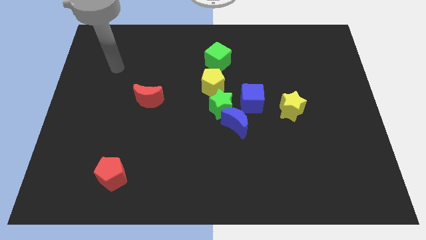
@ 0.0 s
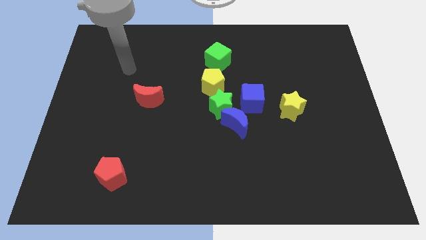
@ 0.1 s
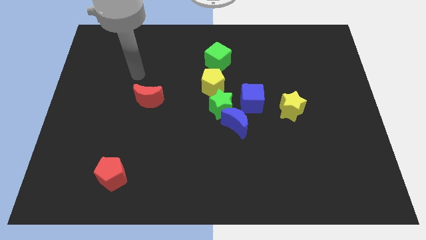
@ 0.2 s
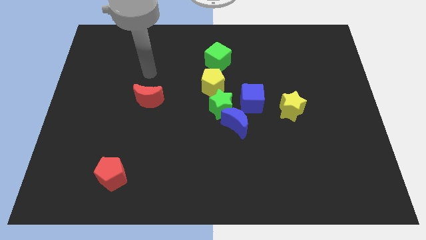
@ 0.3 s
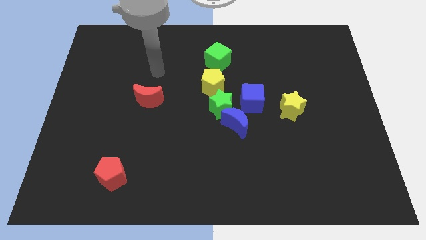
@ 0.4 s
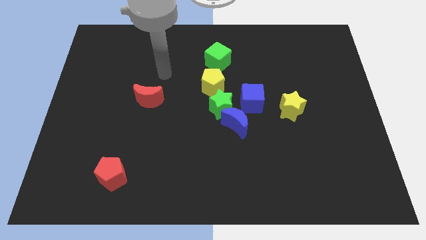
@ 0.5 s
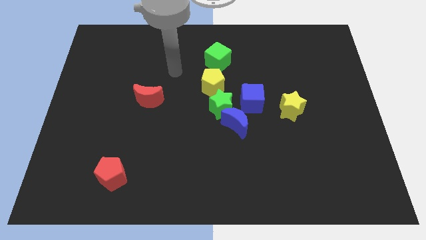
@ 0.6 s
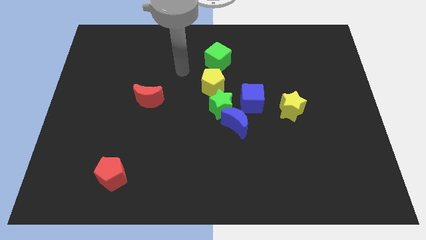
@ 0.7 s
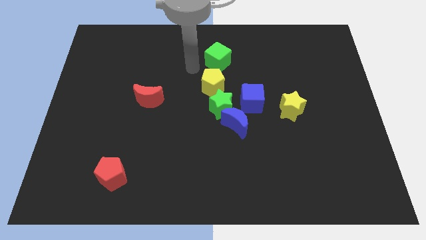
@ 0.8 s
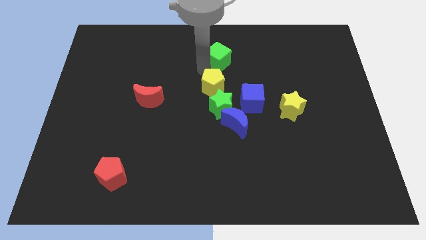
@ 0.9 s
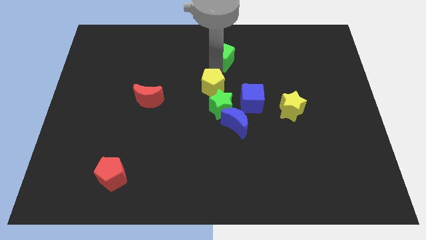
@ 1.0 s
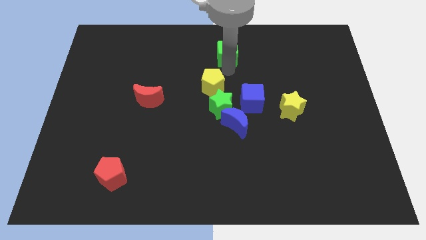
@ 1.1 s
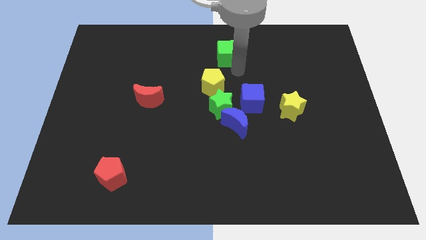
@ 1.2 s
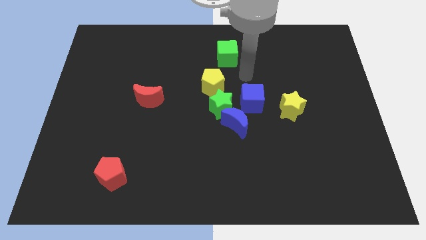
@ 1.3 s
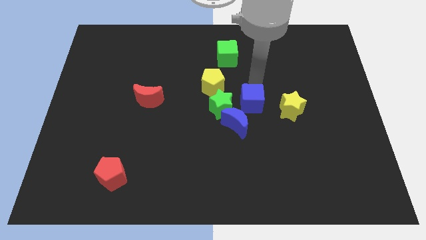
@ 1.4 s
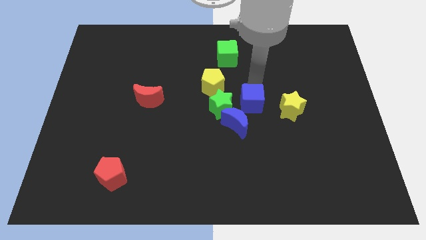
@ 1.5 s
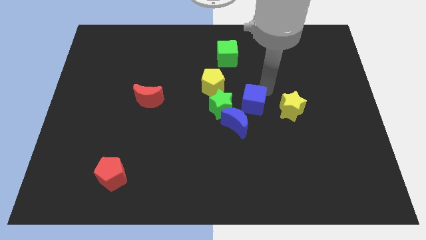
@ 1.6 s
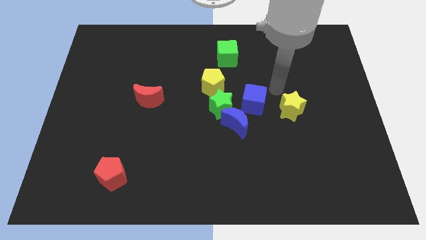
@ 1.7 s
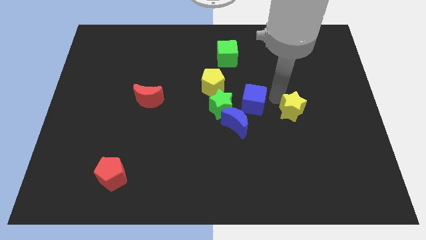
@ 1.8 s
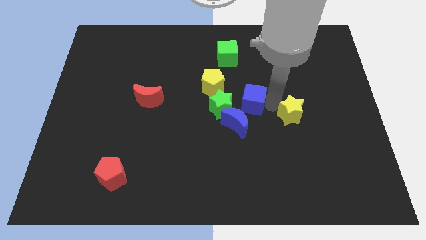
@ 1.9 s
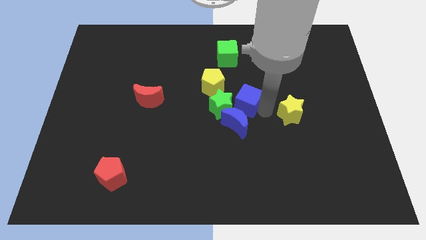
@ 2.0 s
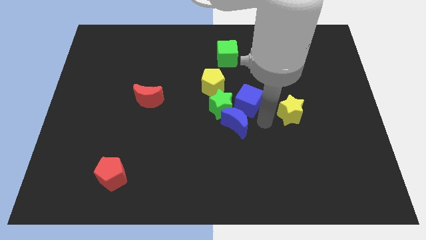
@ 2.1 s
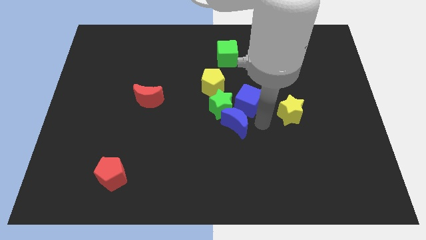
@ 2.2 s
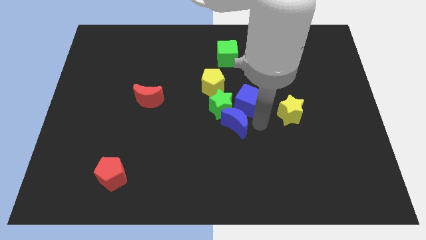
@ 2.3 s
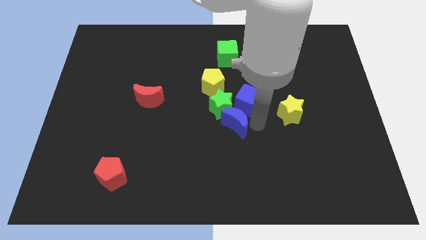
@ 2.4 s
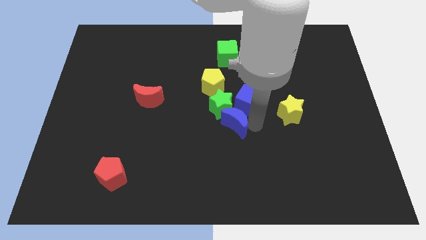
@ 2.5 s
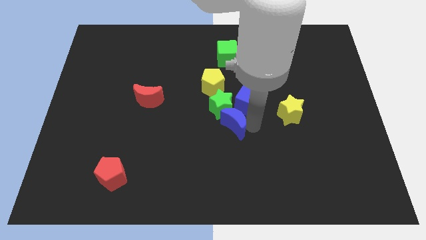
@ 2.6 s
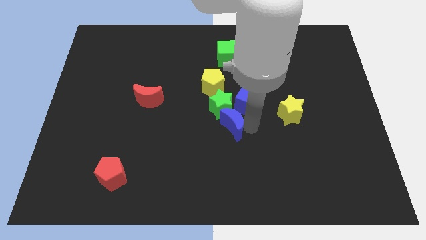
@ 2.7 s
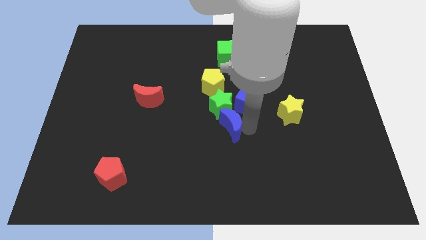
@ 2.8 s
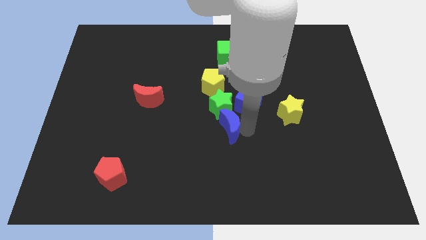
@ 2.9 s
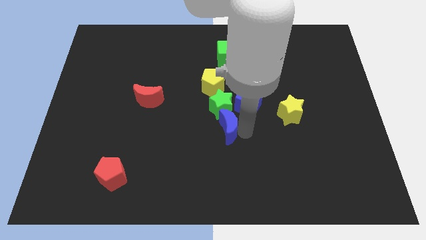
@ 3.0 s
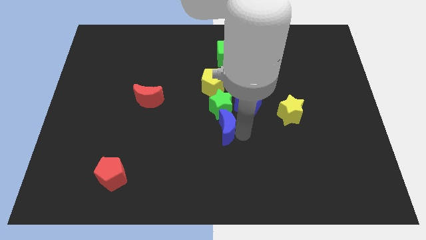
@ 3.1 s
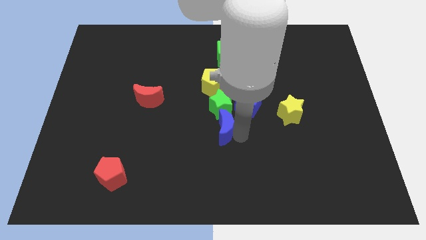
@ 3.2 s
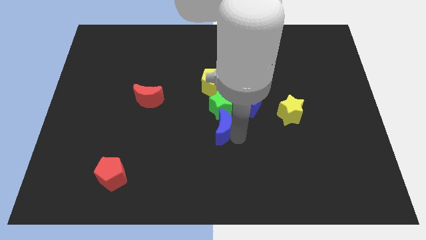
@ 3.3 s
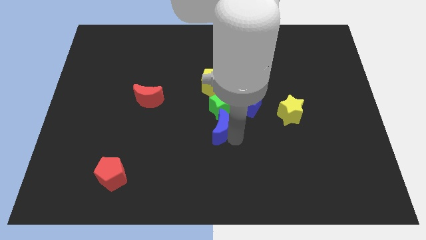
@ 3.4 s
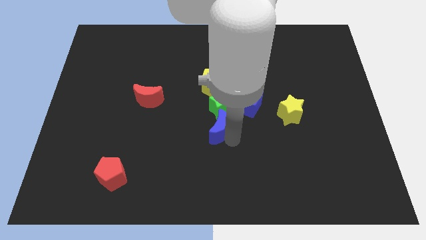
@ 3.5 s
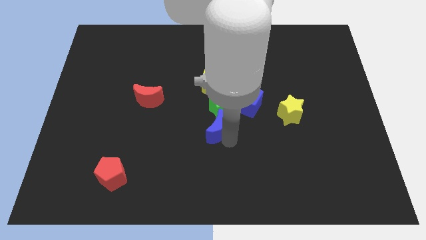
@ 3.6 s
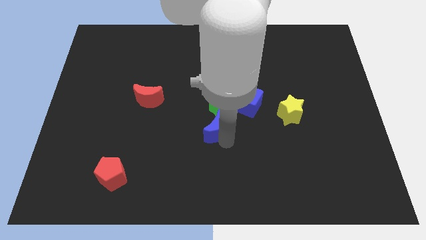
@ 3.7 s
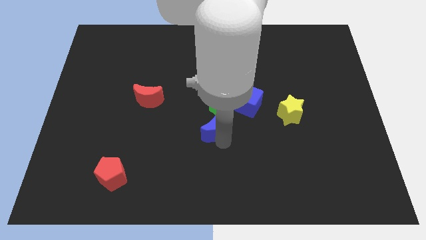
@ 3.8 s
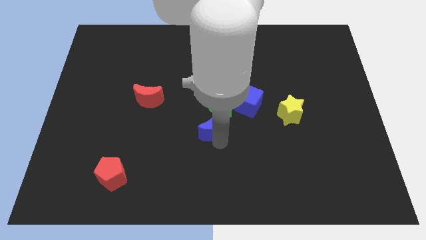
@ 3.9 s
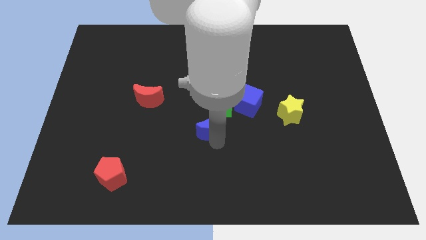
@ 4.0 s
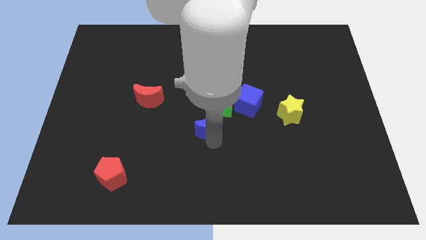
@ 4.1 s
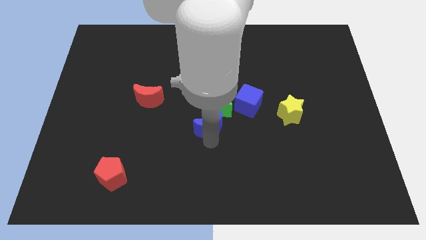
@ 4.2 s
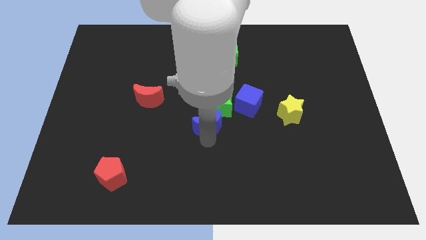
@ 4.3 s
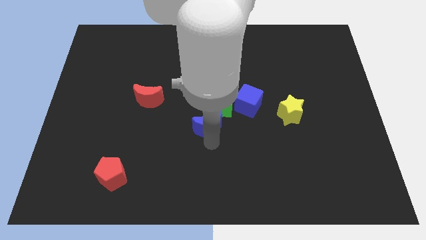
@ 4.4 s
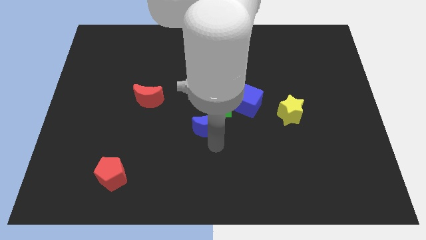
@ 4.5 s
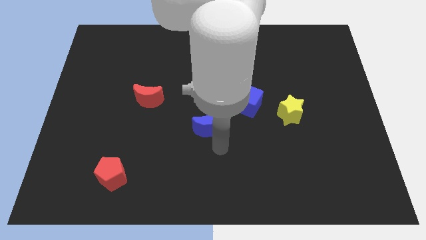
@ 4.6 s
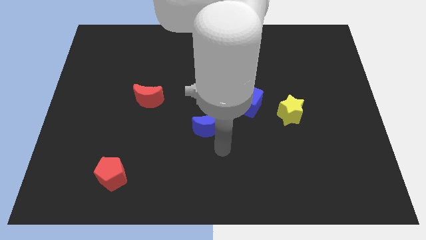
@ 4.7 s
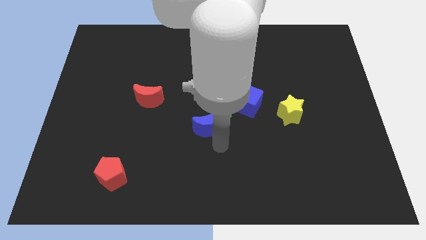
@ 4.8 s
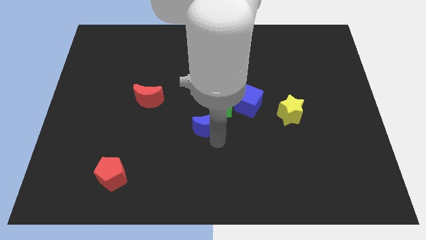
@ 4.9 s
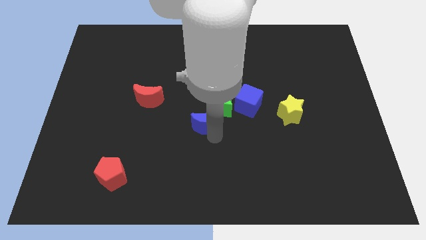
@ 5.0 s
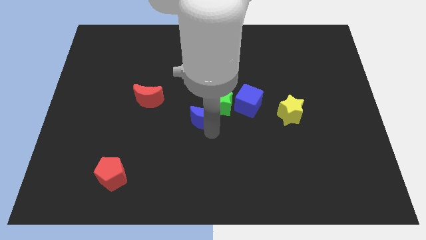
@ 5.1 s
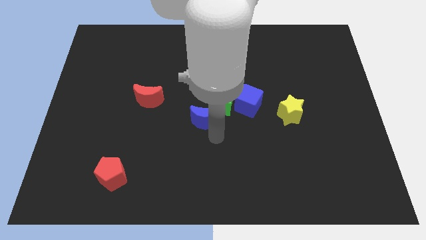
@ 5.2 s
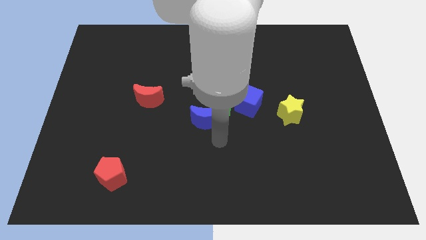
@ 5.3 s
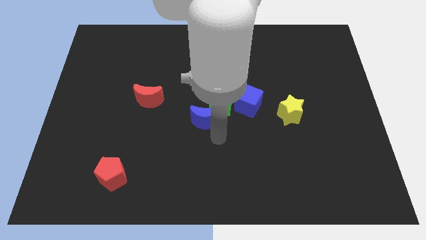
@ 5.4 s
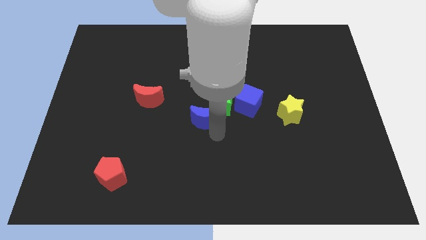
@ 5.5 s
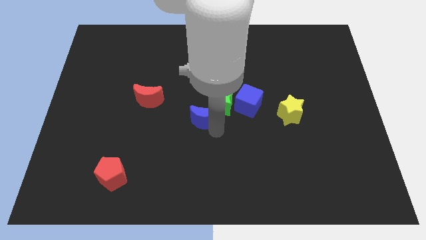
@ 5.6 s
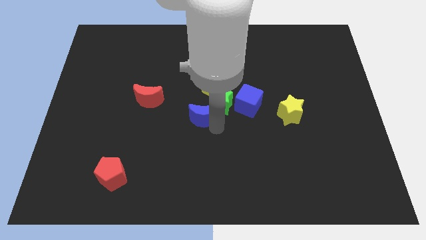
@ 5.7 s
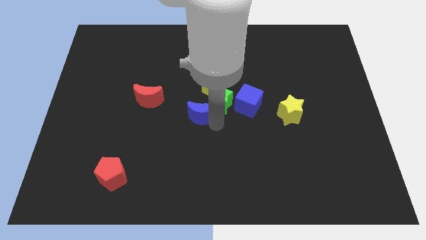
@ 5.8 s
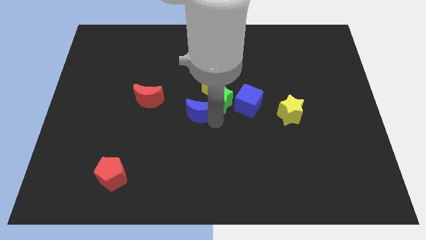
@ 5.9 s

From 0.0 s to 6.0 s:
push the blue moon a little bit diagonally upwards and to the left

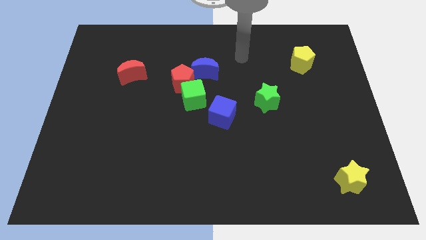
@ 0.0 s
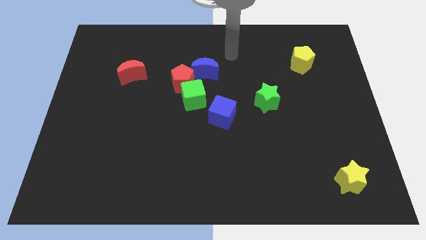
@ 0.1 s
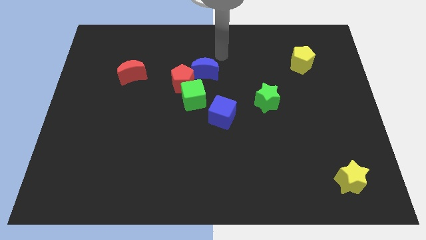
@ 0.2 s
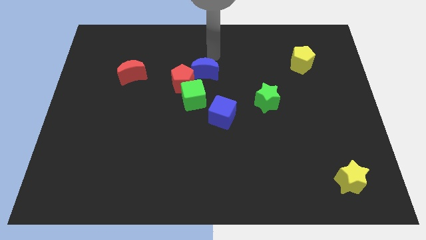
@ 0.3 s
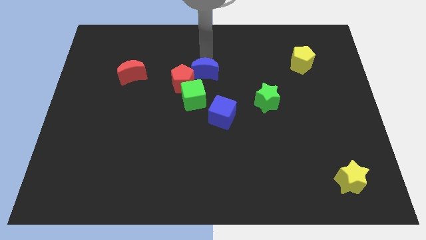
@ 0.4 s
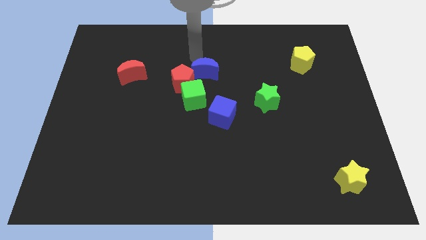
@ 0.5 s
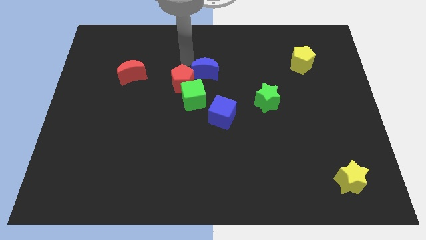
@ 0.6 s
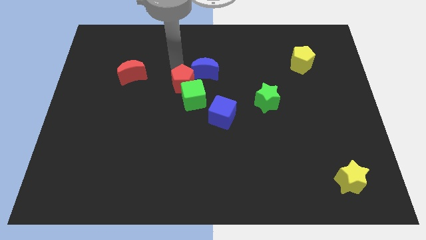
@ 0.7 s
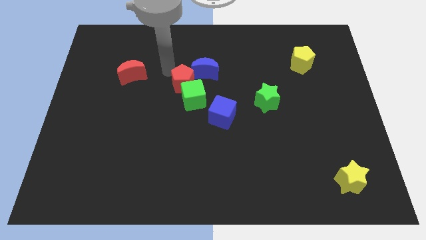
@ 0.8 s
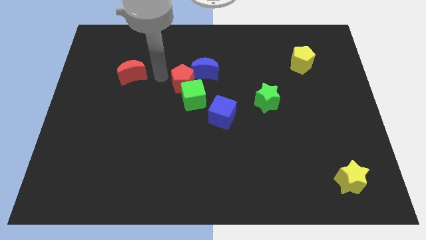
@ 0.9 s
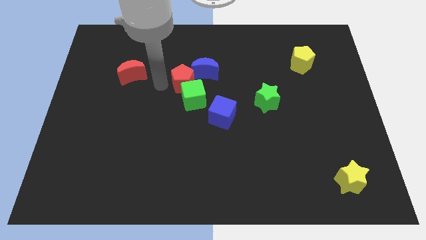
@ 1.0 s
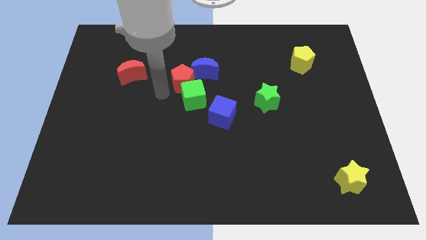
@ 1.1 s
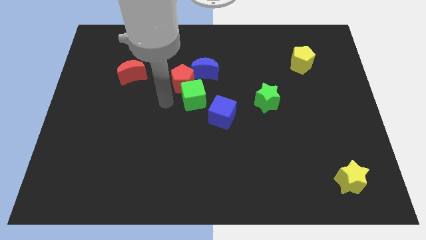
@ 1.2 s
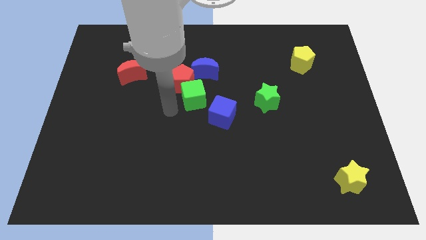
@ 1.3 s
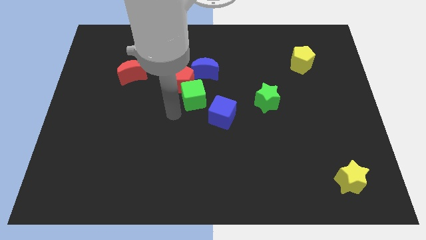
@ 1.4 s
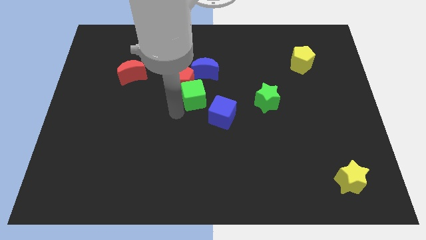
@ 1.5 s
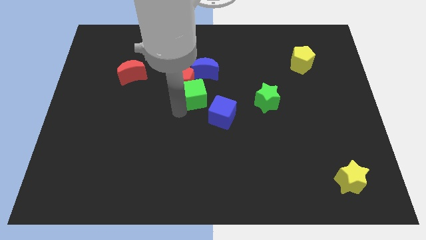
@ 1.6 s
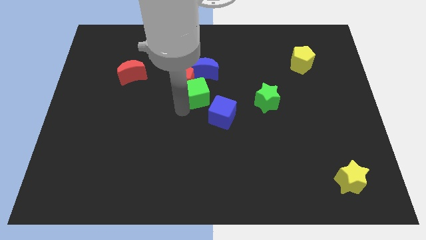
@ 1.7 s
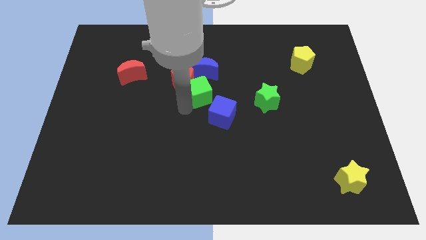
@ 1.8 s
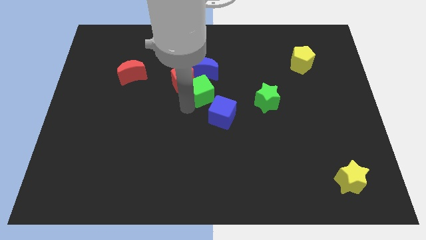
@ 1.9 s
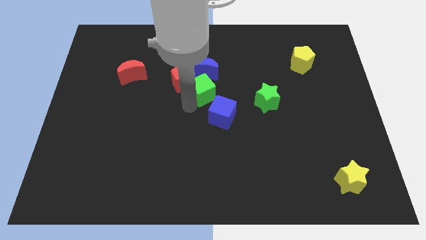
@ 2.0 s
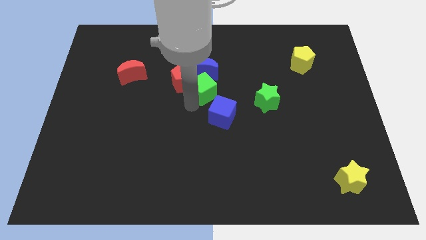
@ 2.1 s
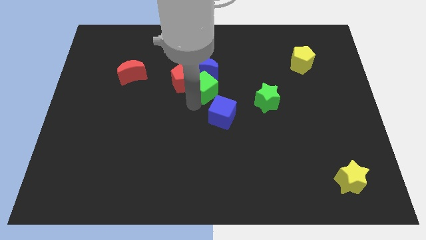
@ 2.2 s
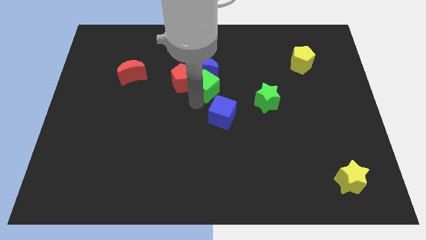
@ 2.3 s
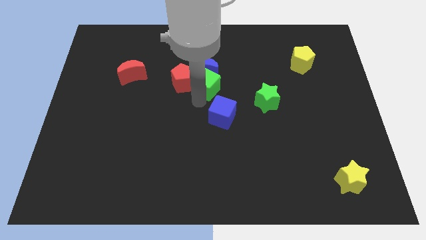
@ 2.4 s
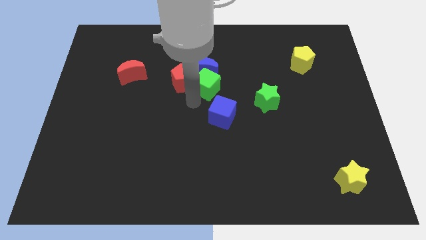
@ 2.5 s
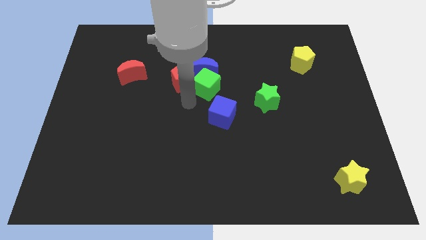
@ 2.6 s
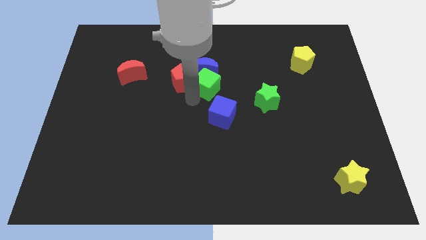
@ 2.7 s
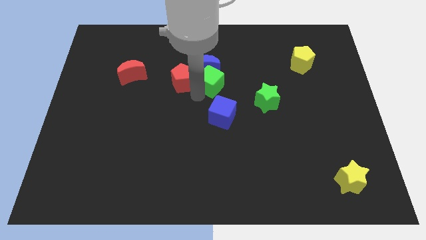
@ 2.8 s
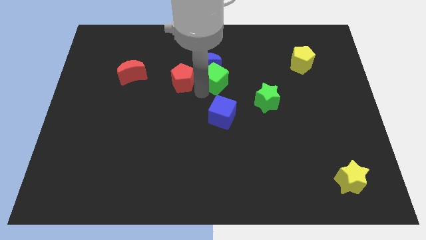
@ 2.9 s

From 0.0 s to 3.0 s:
slightly move the green cube upwards and right diagonally
